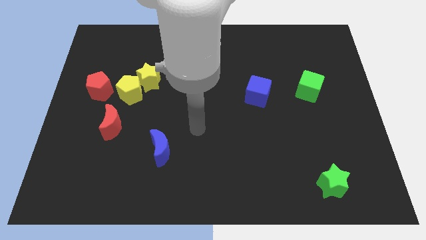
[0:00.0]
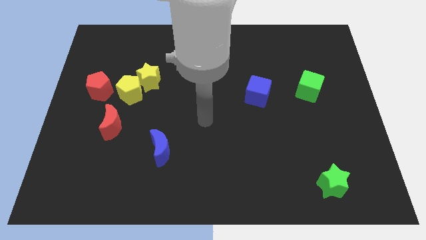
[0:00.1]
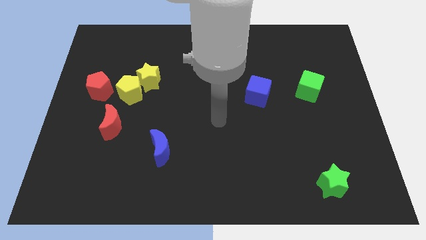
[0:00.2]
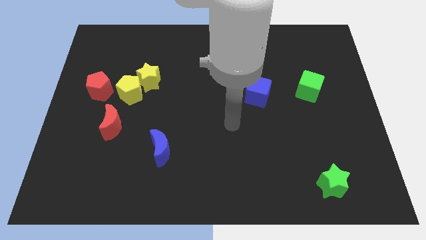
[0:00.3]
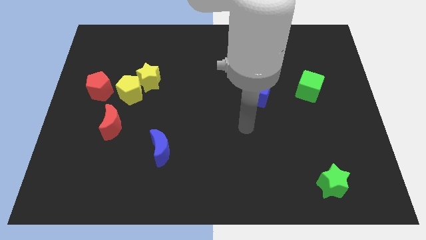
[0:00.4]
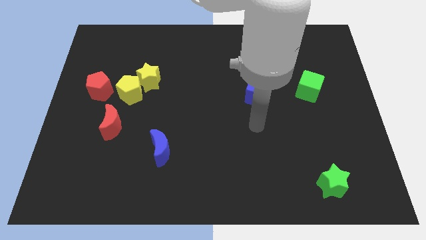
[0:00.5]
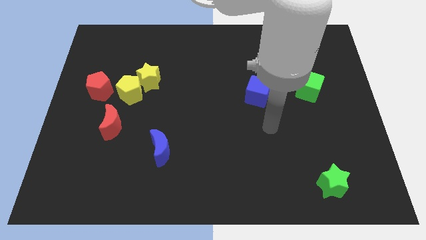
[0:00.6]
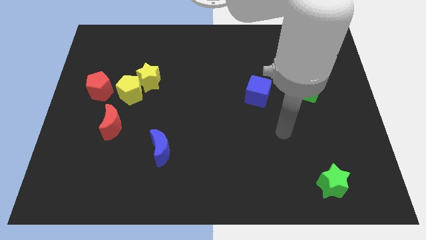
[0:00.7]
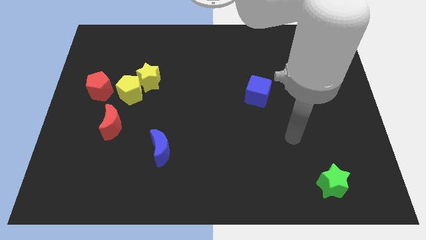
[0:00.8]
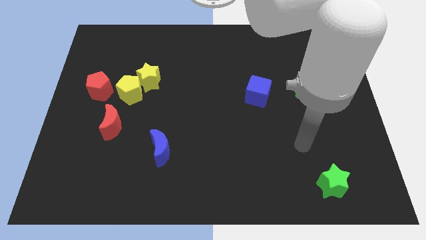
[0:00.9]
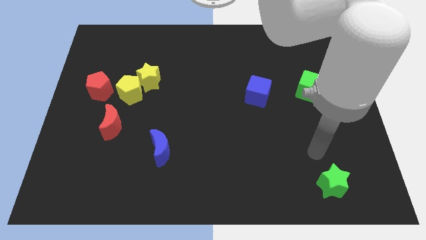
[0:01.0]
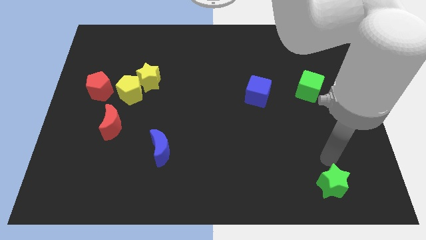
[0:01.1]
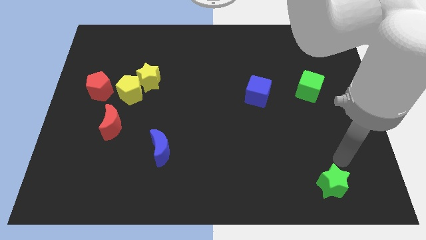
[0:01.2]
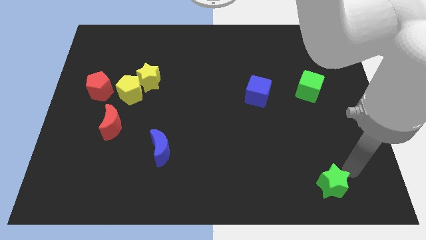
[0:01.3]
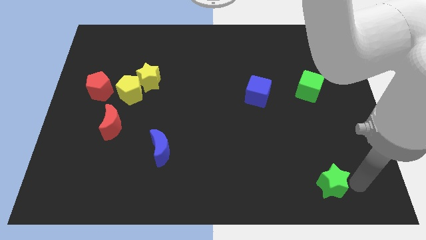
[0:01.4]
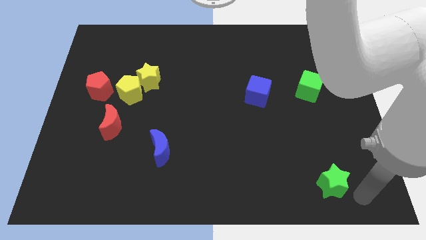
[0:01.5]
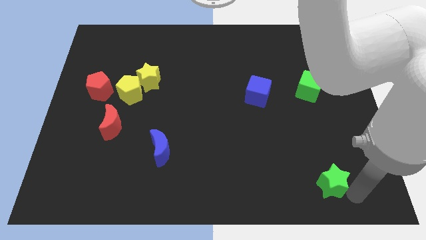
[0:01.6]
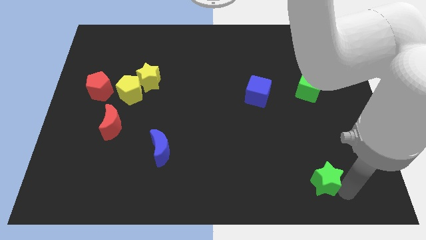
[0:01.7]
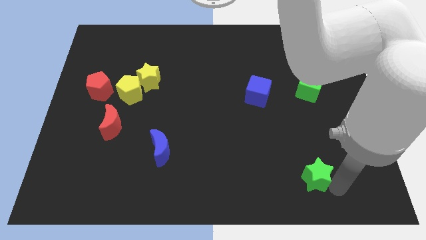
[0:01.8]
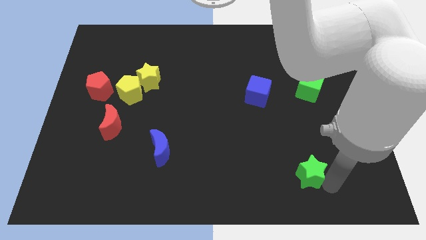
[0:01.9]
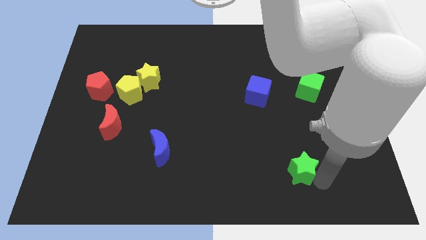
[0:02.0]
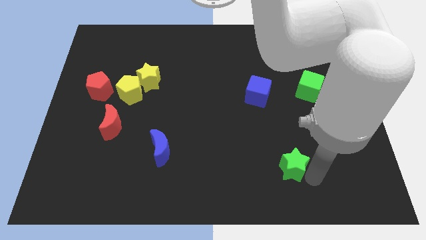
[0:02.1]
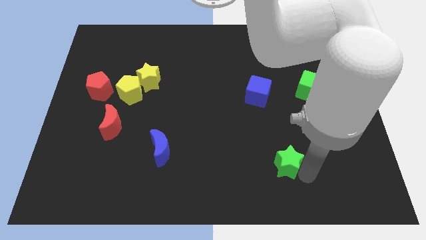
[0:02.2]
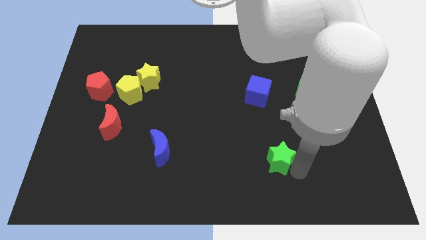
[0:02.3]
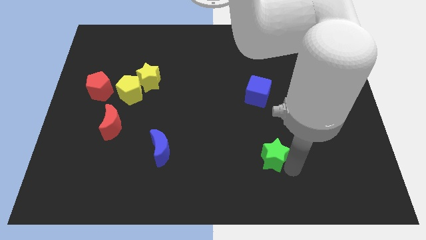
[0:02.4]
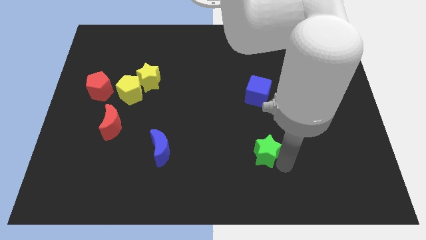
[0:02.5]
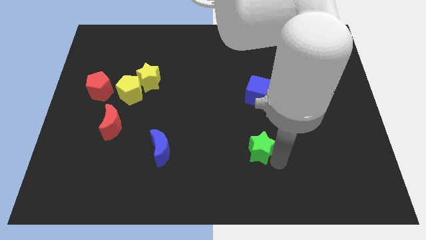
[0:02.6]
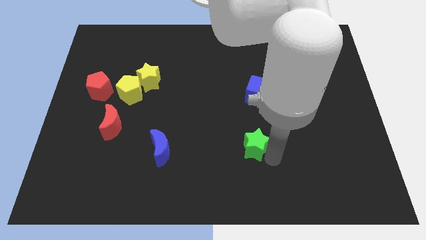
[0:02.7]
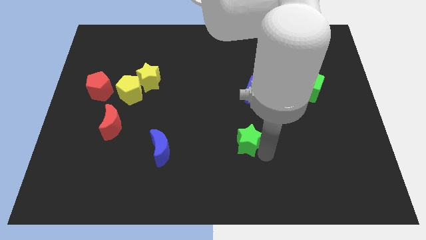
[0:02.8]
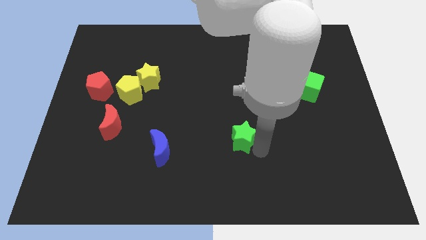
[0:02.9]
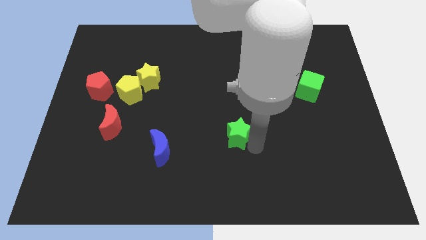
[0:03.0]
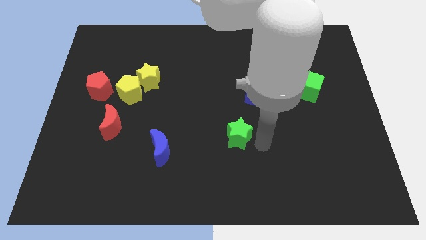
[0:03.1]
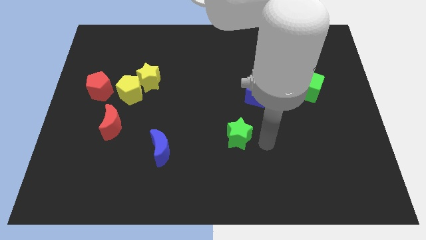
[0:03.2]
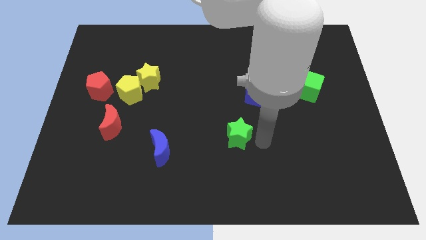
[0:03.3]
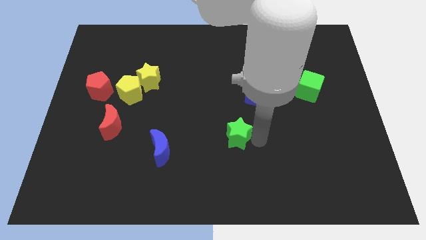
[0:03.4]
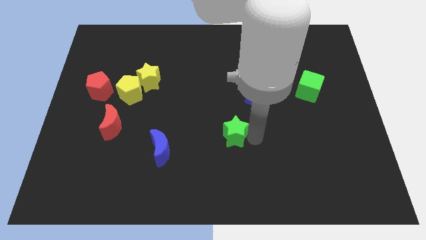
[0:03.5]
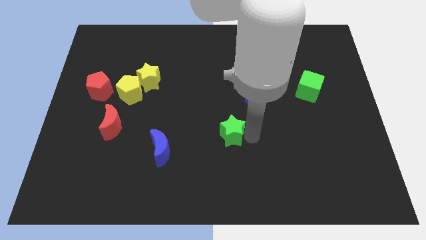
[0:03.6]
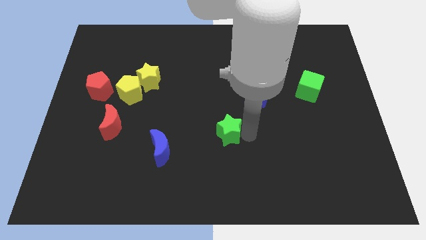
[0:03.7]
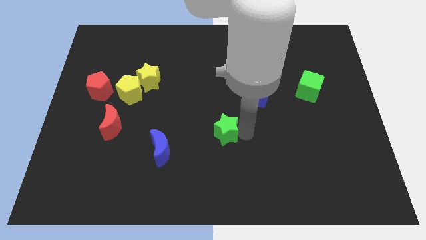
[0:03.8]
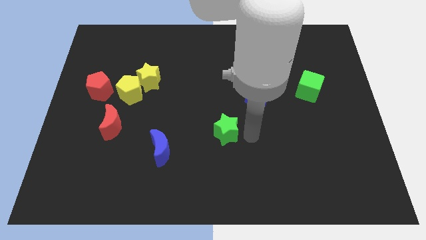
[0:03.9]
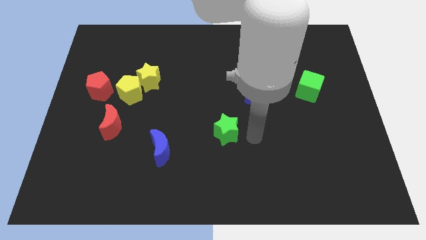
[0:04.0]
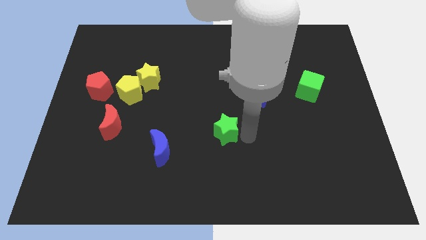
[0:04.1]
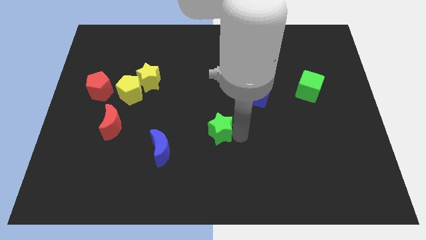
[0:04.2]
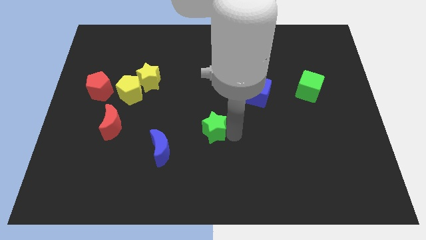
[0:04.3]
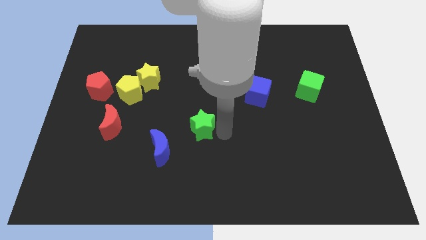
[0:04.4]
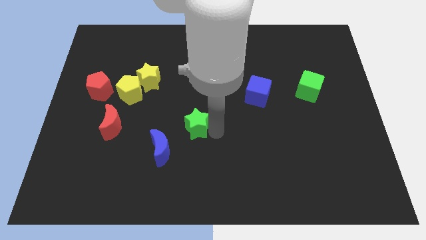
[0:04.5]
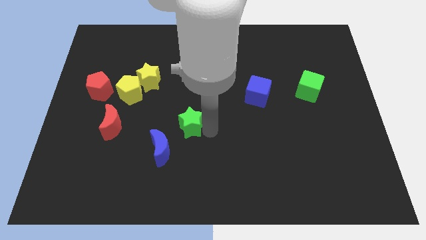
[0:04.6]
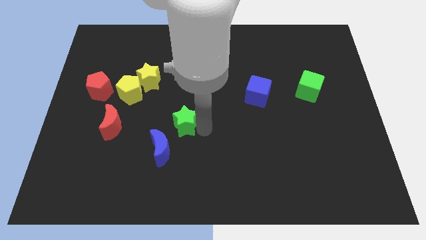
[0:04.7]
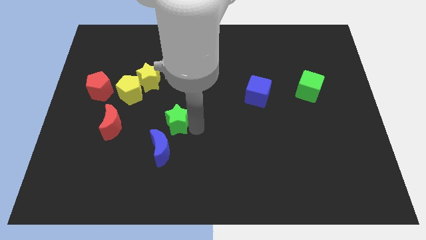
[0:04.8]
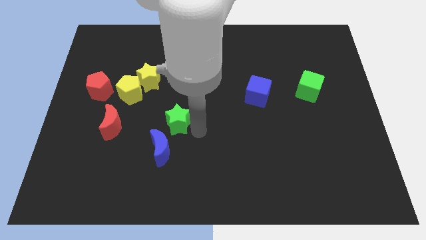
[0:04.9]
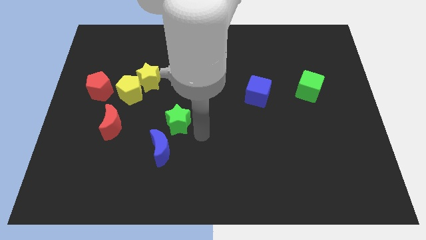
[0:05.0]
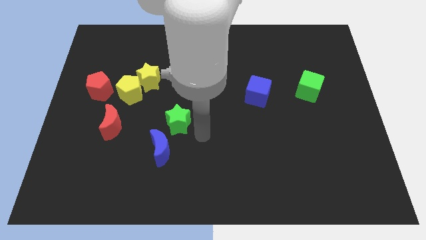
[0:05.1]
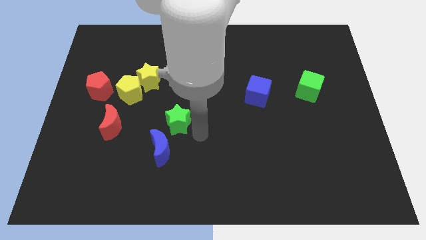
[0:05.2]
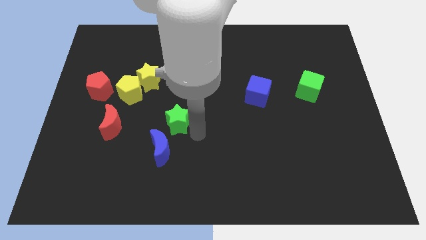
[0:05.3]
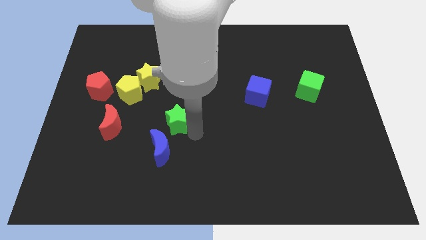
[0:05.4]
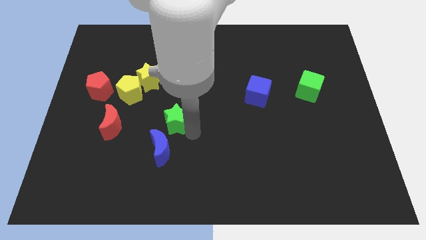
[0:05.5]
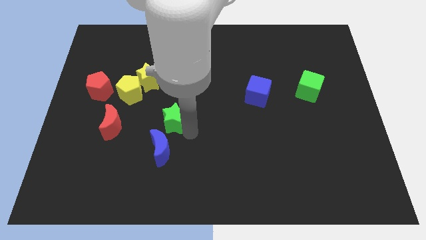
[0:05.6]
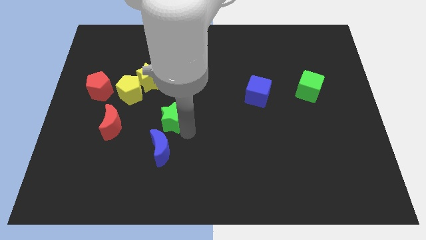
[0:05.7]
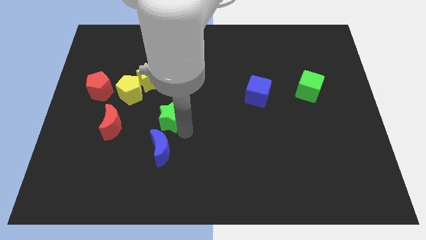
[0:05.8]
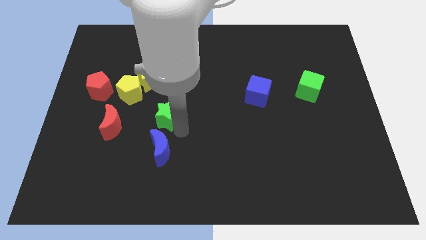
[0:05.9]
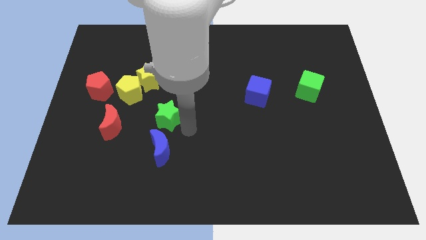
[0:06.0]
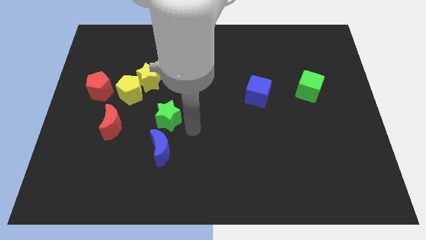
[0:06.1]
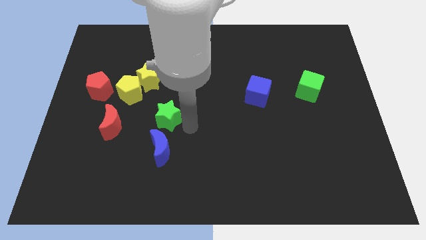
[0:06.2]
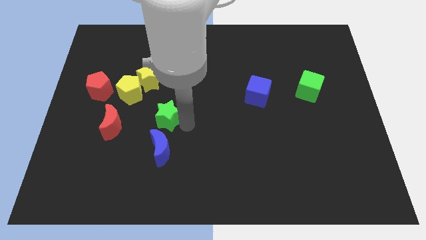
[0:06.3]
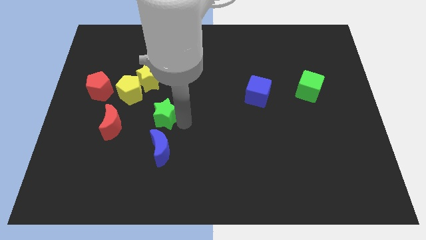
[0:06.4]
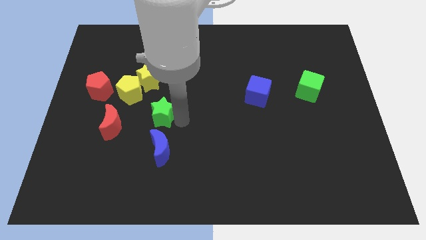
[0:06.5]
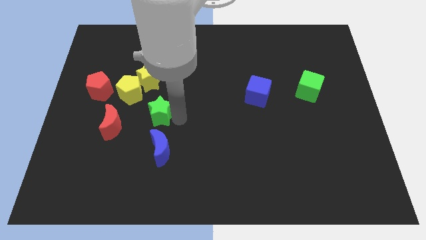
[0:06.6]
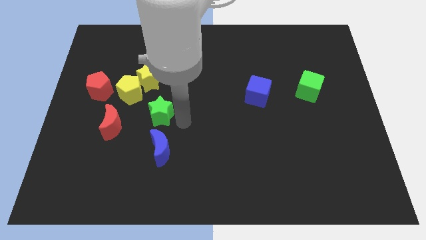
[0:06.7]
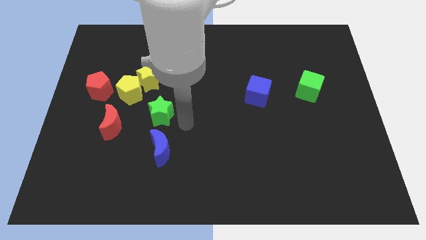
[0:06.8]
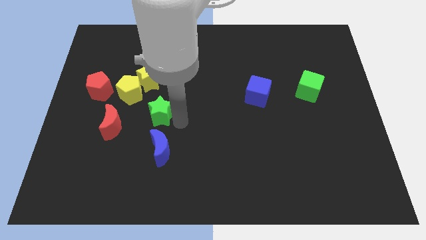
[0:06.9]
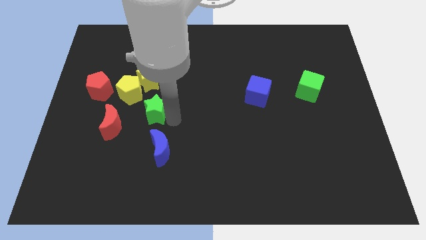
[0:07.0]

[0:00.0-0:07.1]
move the green star to the top right side of the red moon
